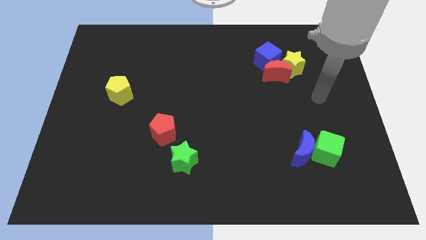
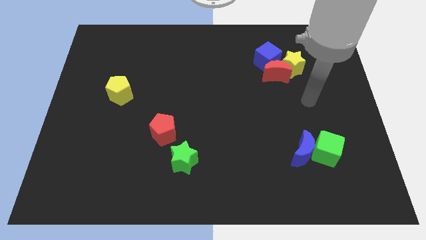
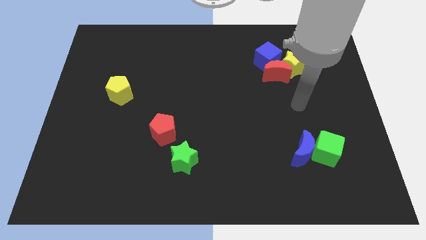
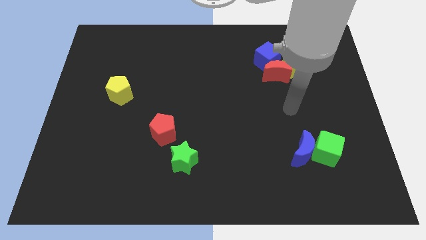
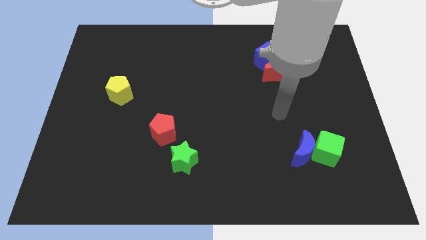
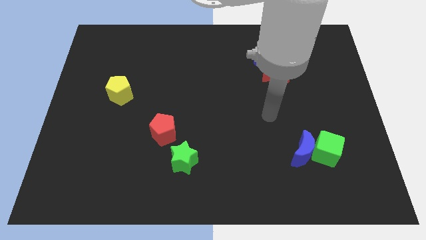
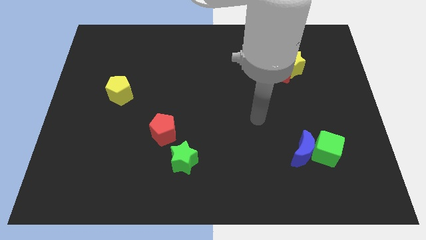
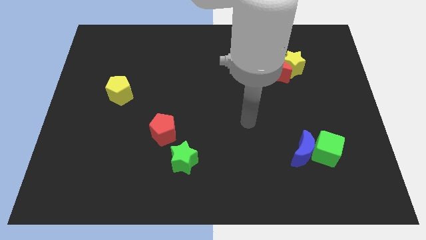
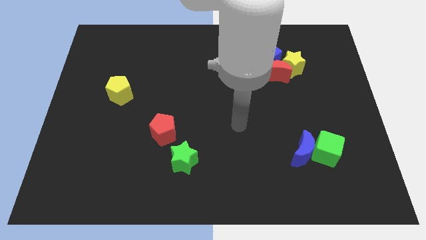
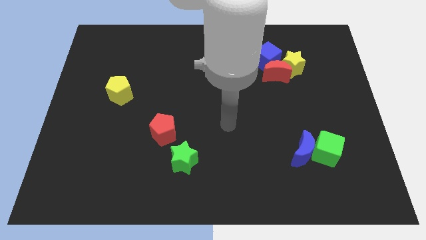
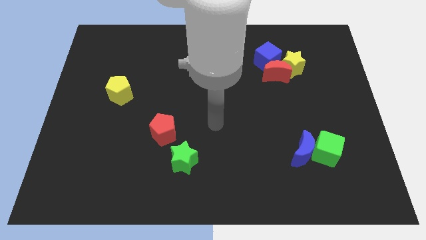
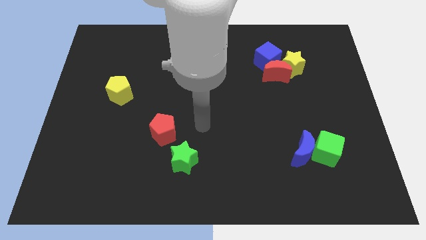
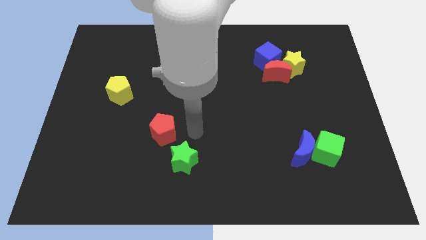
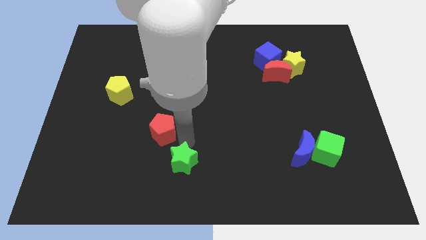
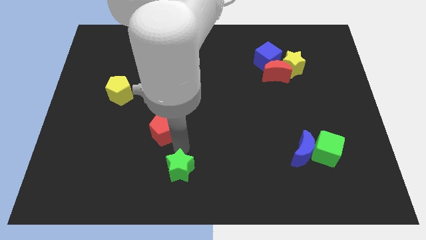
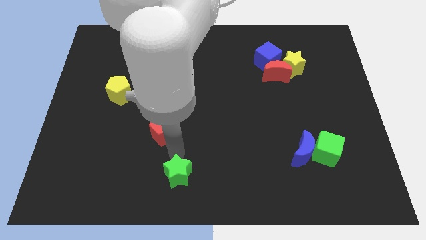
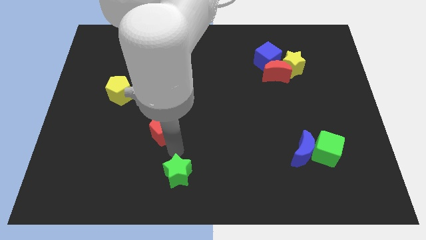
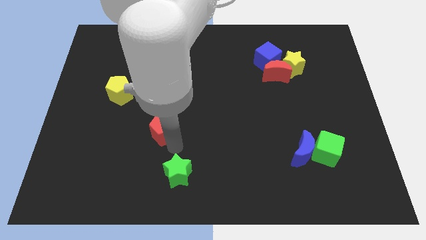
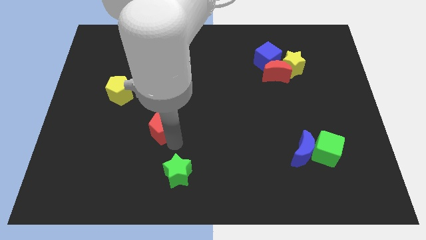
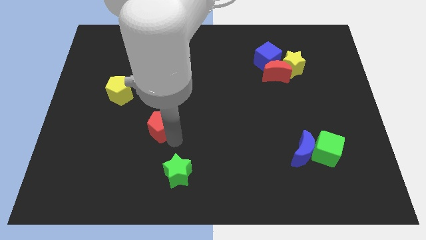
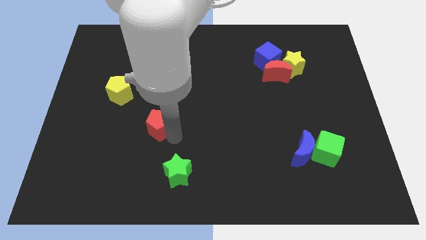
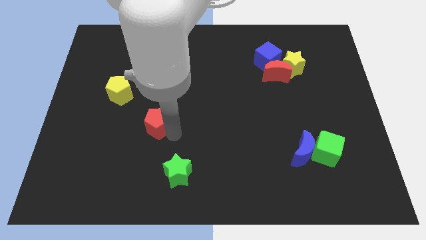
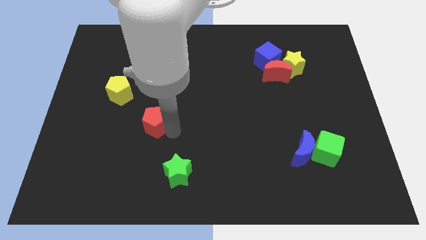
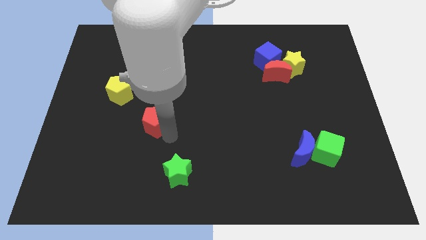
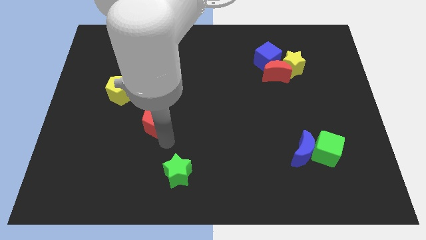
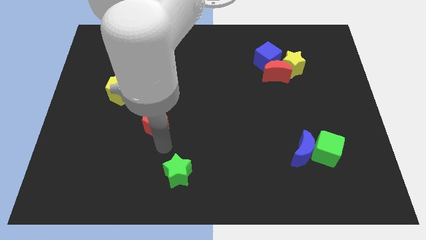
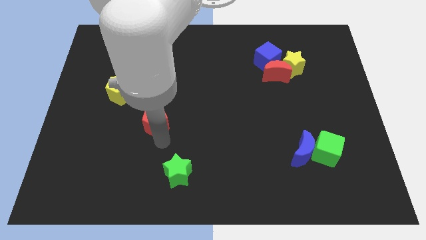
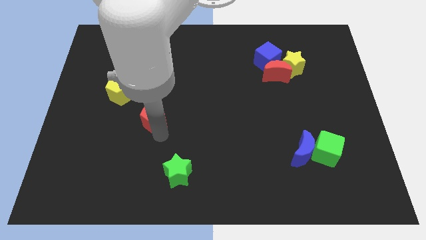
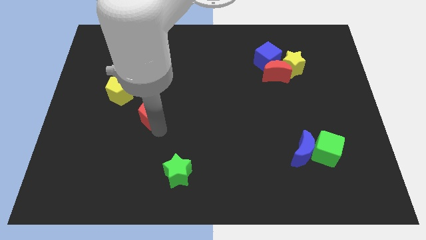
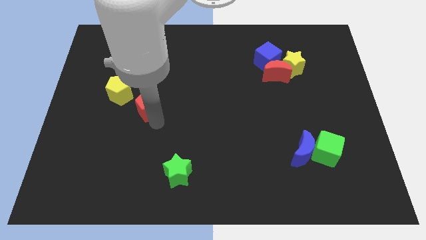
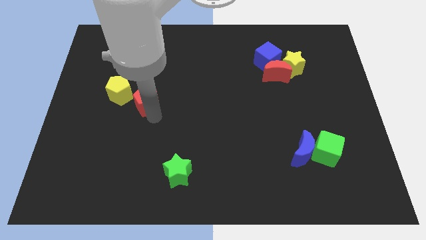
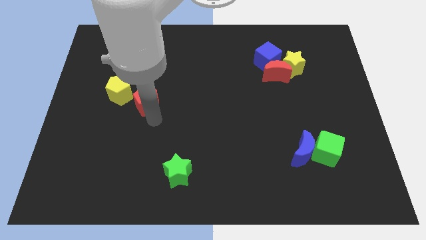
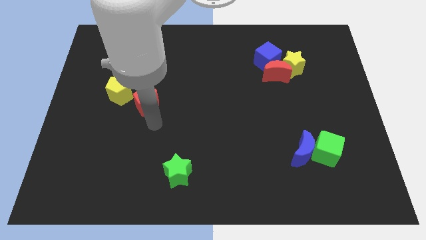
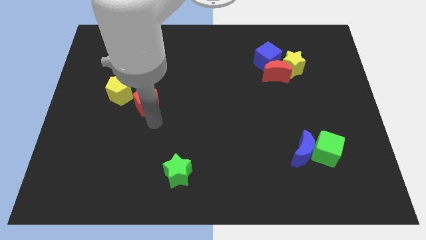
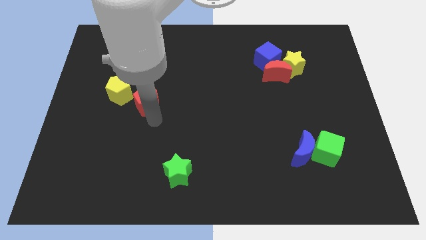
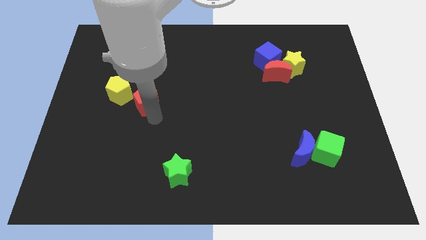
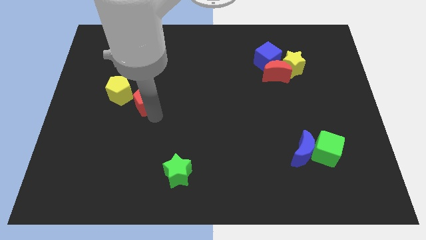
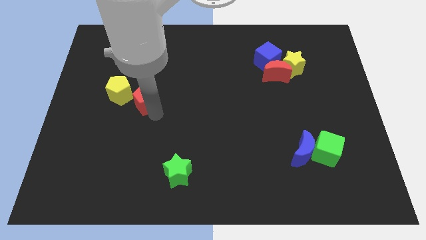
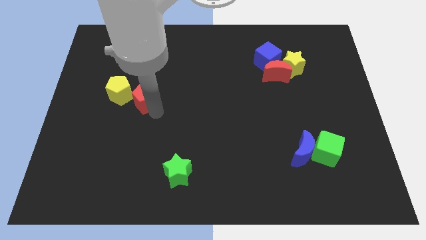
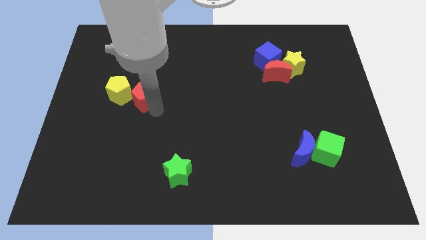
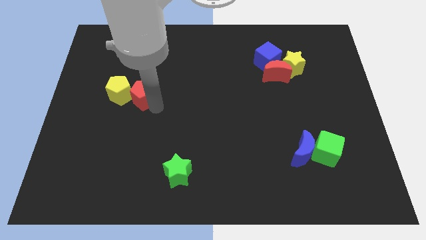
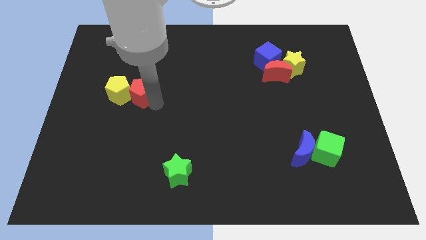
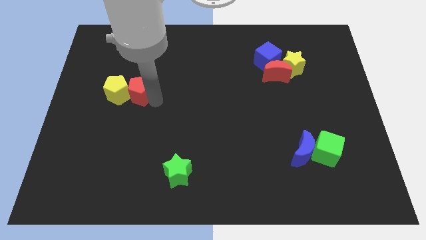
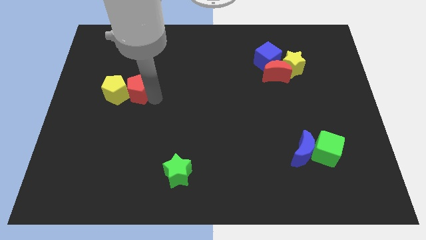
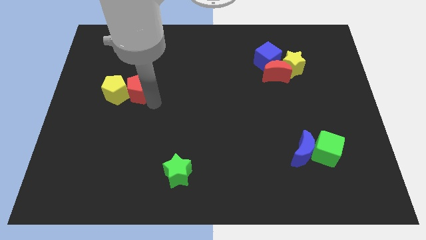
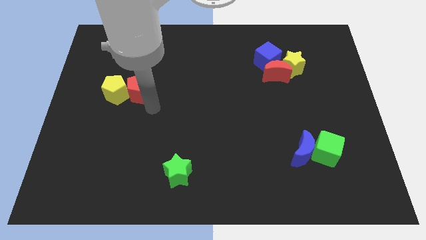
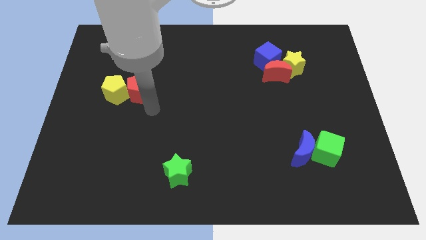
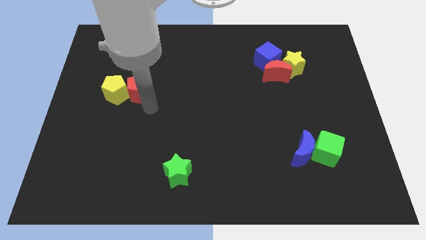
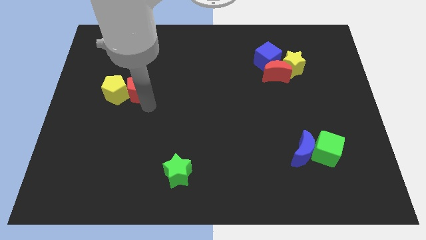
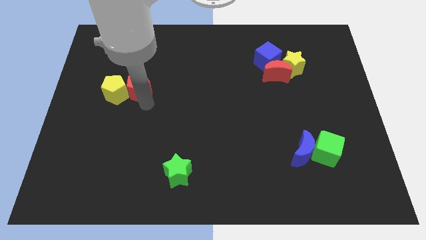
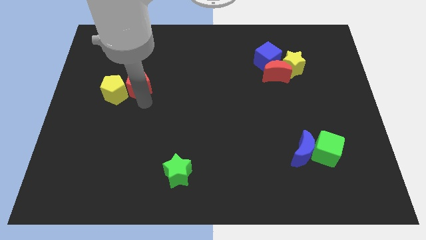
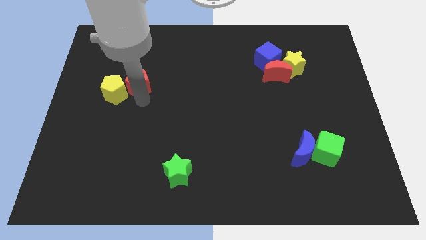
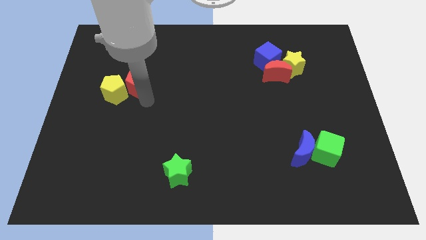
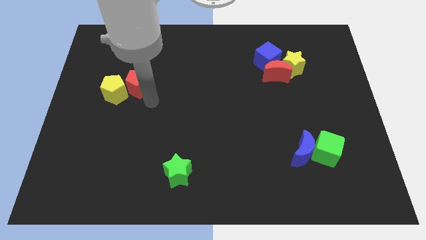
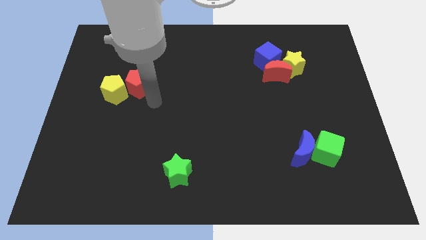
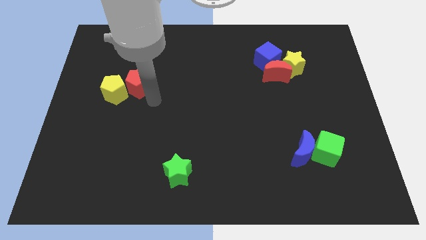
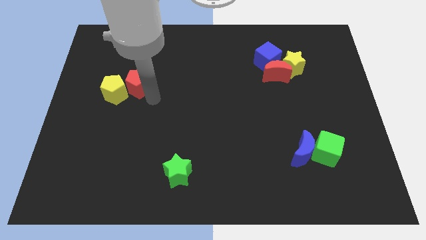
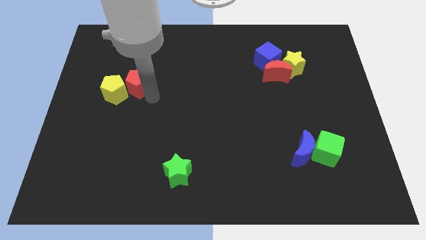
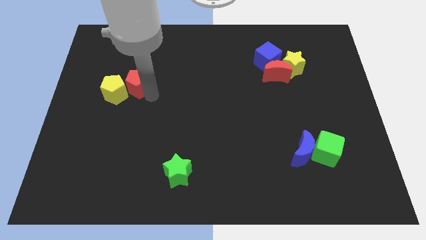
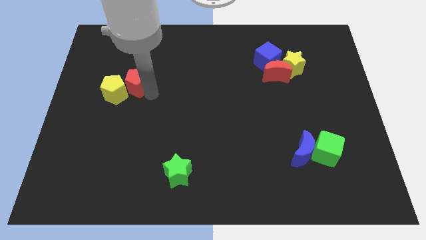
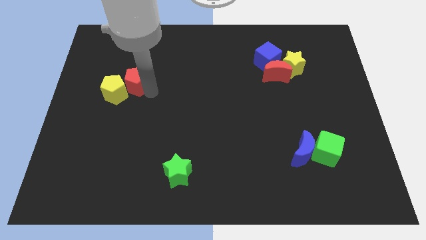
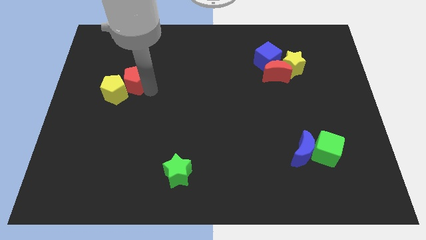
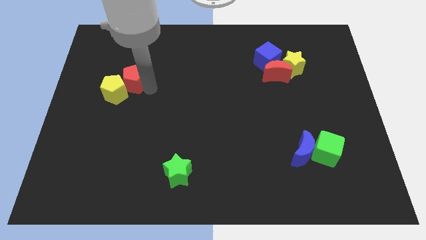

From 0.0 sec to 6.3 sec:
move the red pentagon above the yellow pentagon
